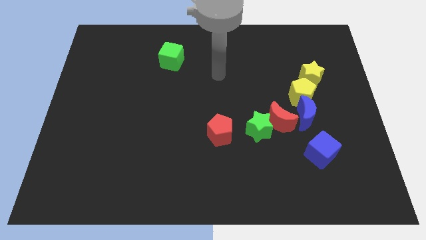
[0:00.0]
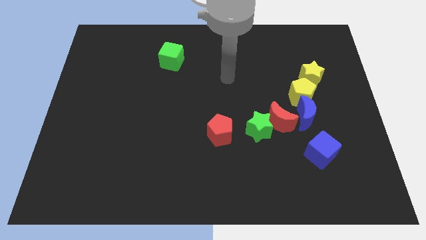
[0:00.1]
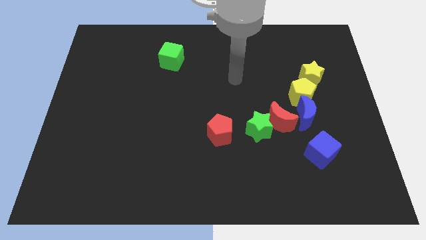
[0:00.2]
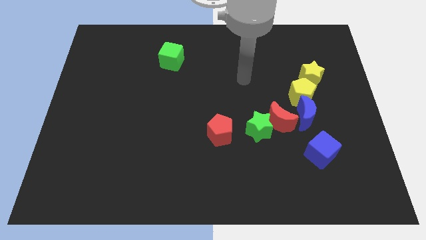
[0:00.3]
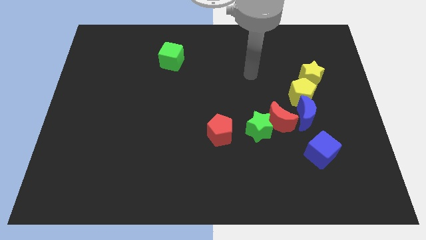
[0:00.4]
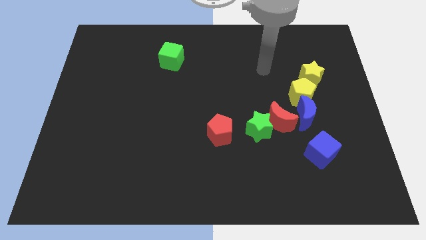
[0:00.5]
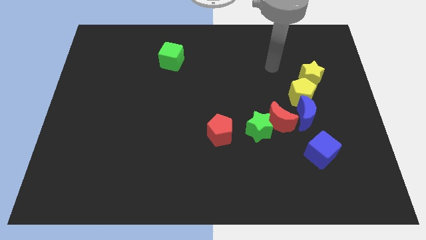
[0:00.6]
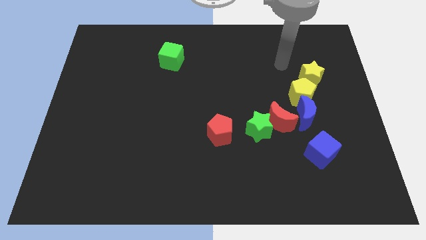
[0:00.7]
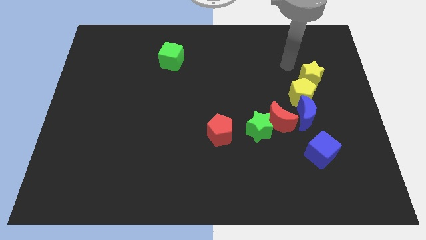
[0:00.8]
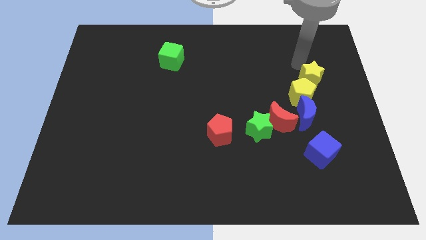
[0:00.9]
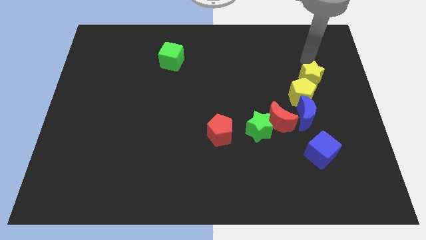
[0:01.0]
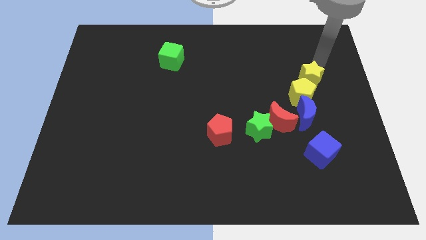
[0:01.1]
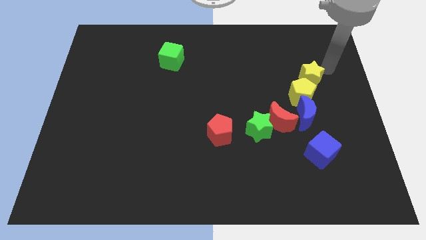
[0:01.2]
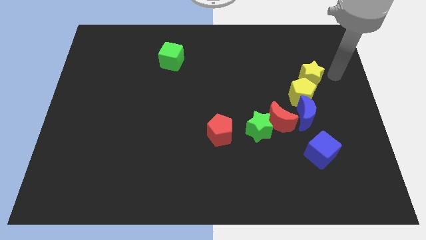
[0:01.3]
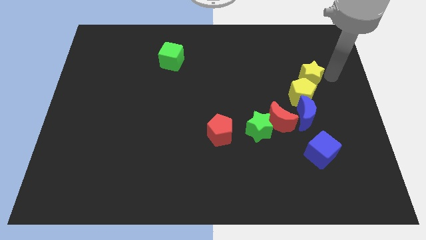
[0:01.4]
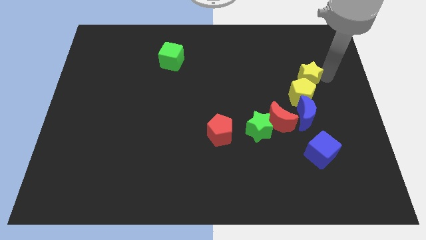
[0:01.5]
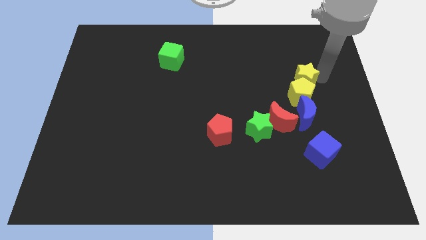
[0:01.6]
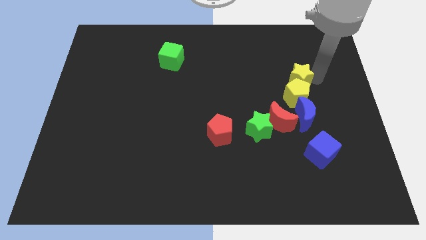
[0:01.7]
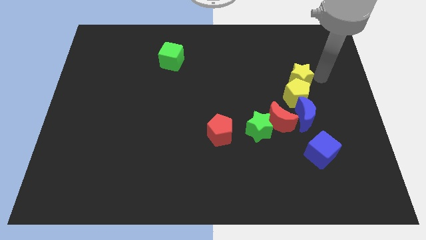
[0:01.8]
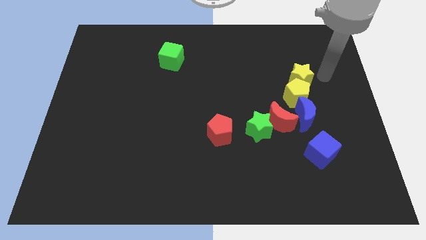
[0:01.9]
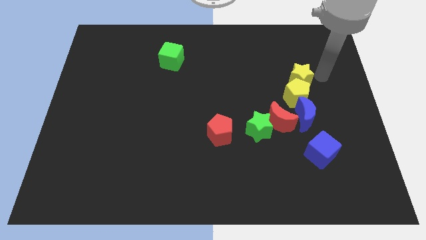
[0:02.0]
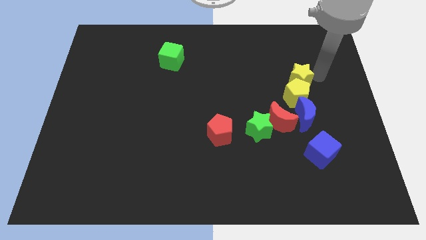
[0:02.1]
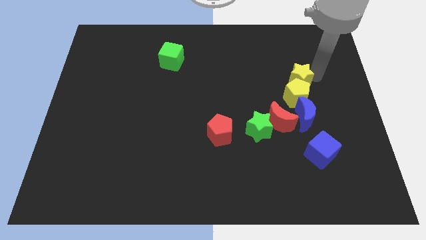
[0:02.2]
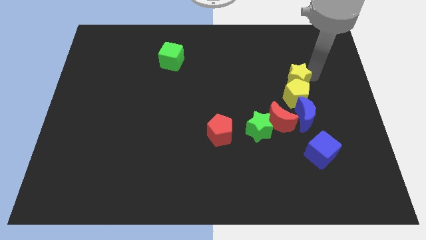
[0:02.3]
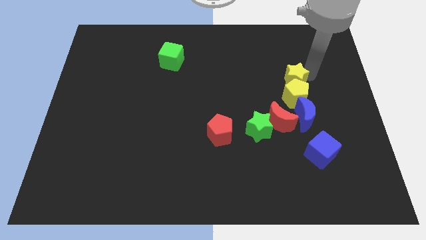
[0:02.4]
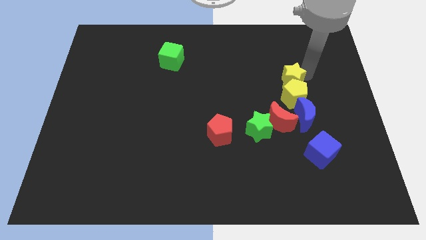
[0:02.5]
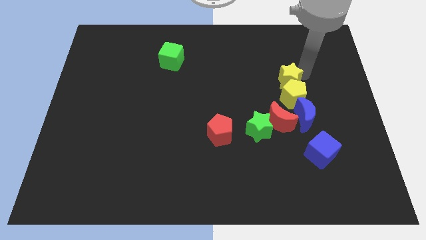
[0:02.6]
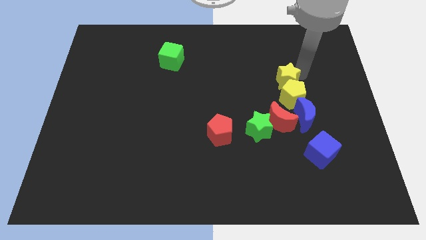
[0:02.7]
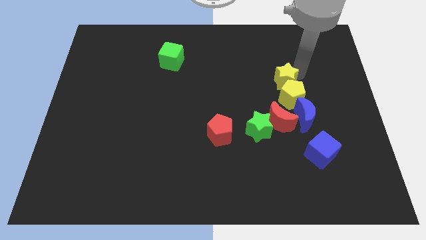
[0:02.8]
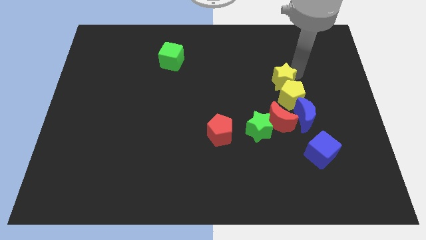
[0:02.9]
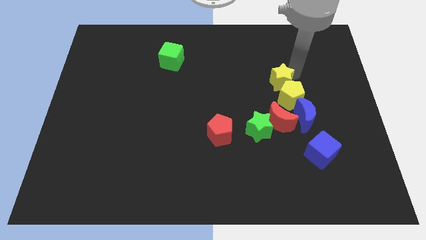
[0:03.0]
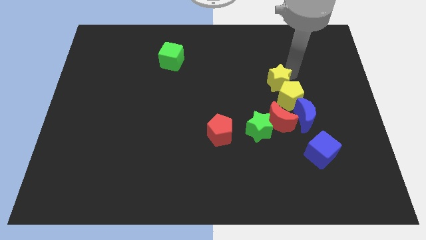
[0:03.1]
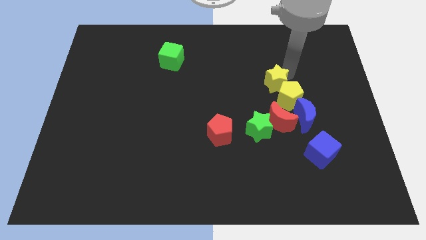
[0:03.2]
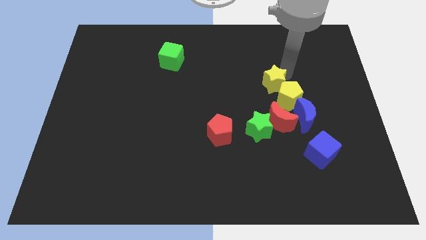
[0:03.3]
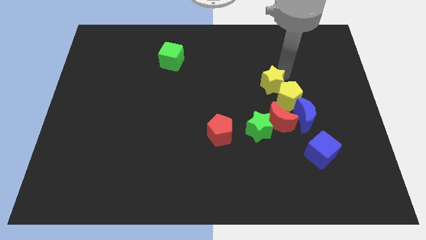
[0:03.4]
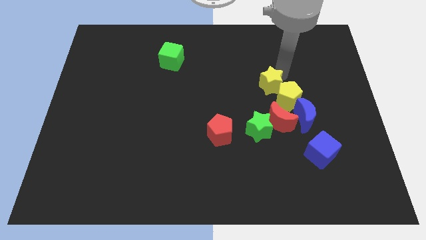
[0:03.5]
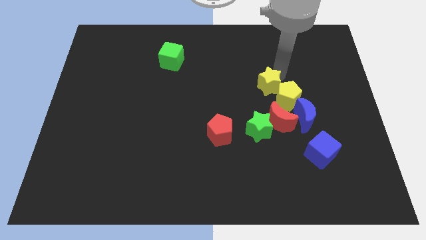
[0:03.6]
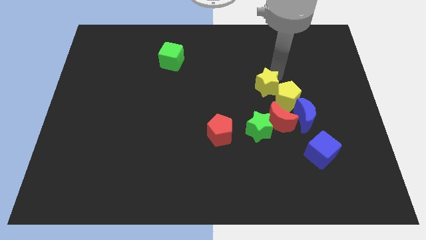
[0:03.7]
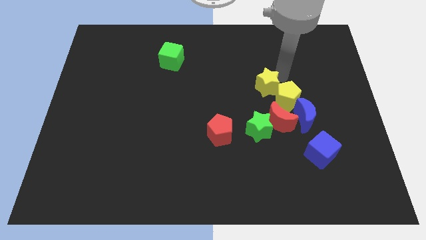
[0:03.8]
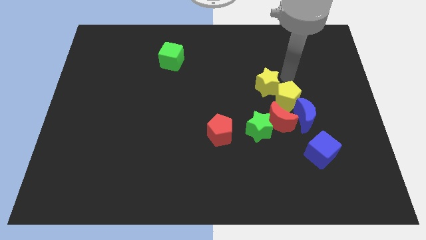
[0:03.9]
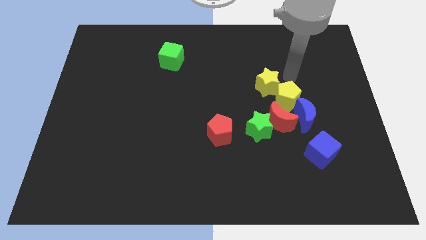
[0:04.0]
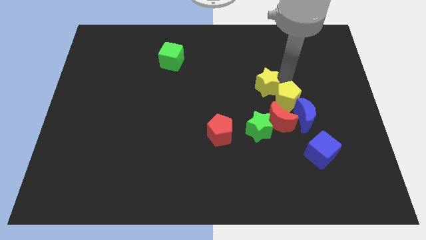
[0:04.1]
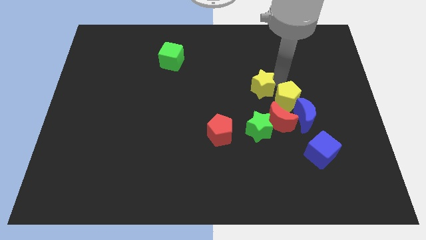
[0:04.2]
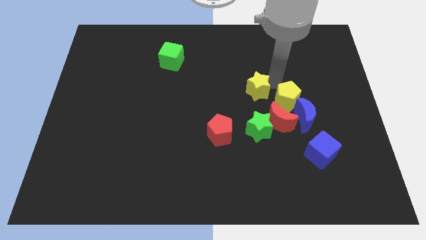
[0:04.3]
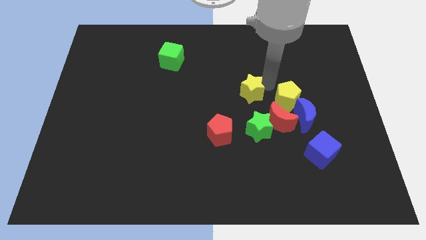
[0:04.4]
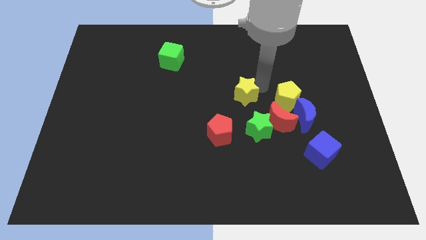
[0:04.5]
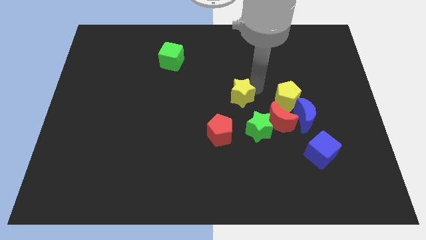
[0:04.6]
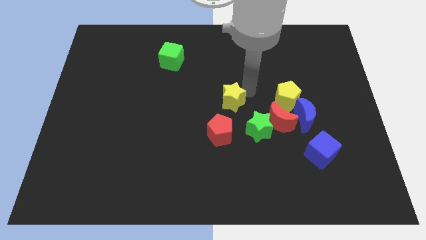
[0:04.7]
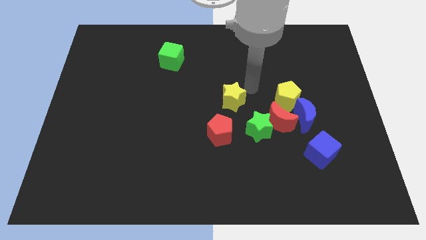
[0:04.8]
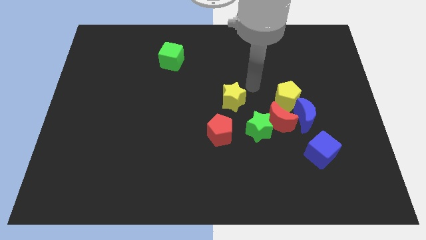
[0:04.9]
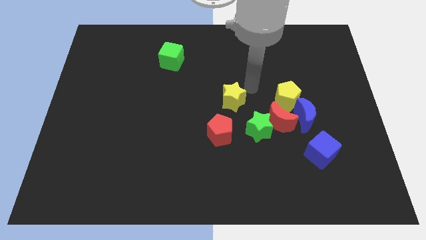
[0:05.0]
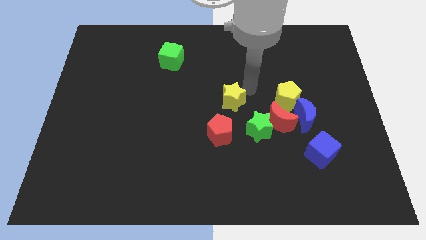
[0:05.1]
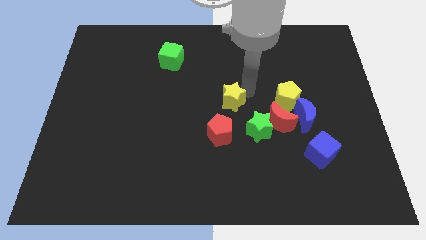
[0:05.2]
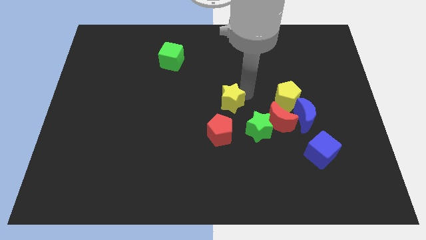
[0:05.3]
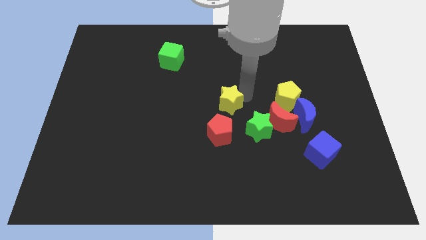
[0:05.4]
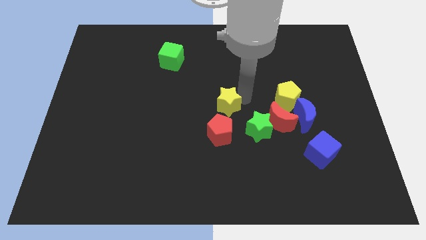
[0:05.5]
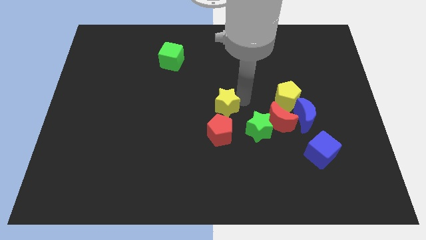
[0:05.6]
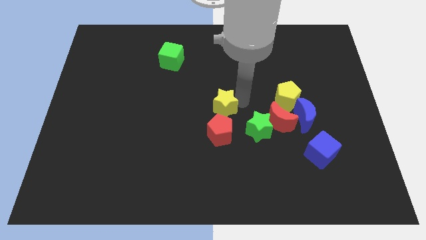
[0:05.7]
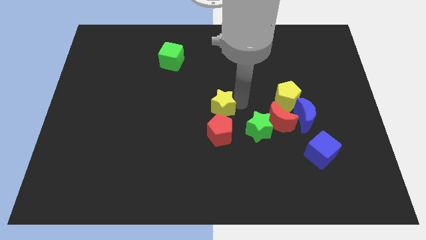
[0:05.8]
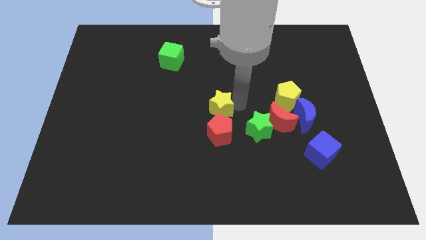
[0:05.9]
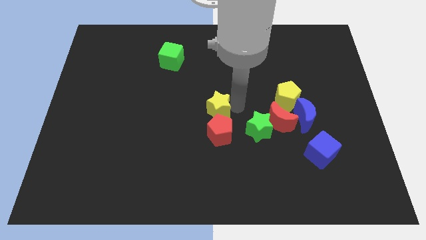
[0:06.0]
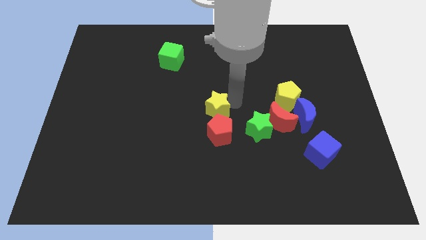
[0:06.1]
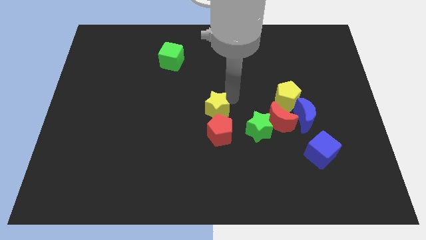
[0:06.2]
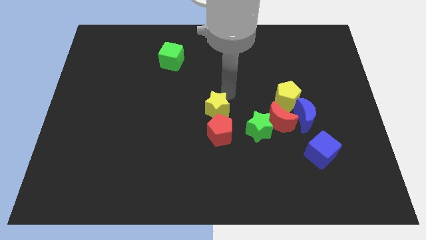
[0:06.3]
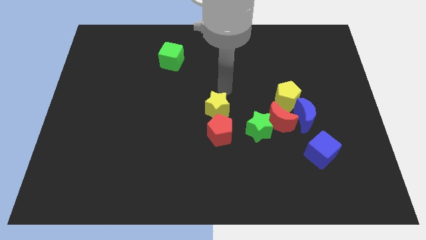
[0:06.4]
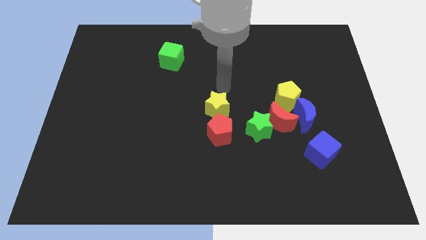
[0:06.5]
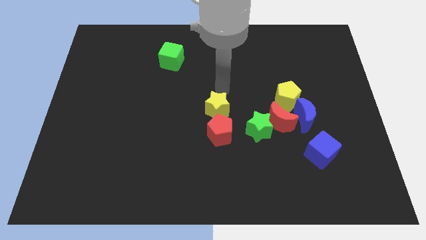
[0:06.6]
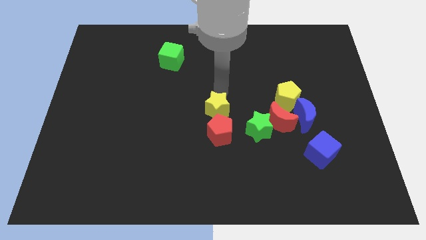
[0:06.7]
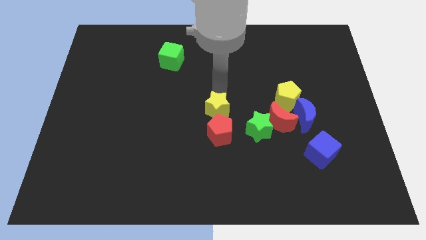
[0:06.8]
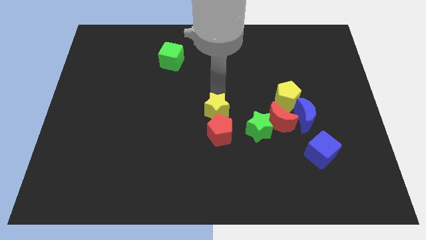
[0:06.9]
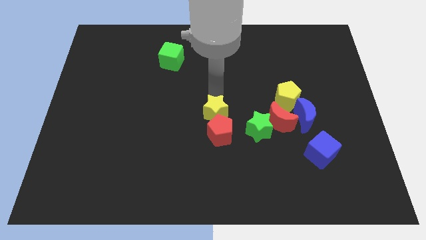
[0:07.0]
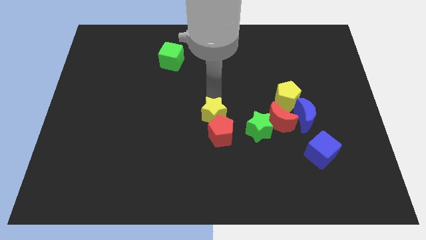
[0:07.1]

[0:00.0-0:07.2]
push the yellow star to the left side of the green star

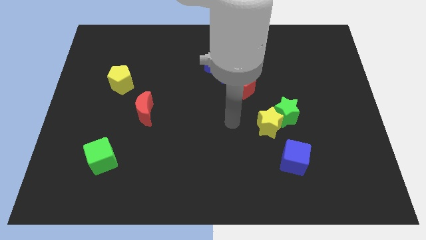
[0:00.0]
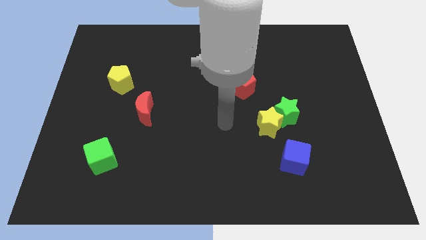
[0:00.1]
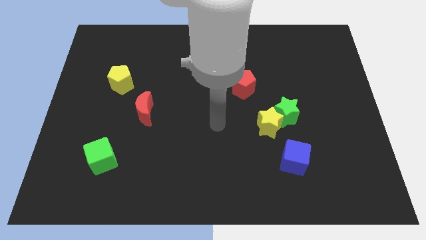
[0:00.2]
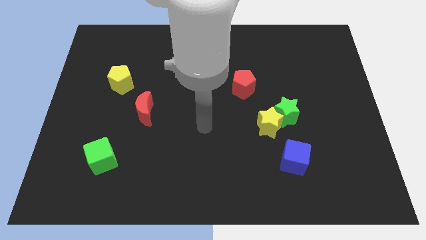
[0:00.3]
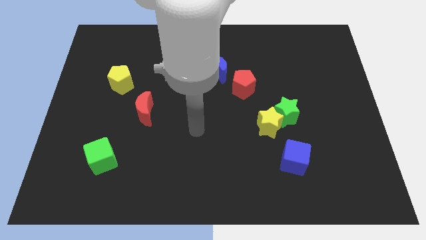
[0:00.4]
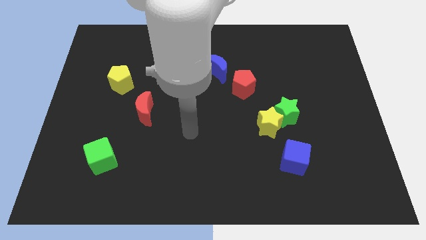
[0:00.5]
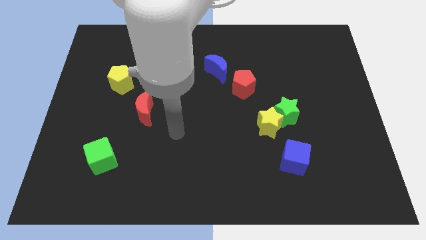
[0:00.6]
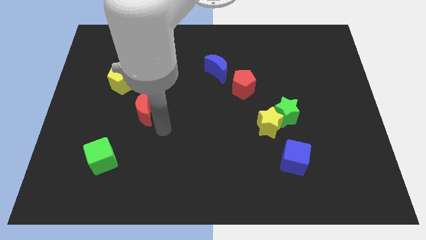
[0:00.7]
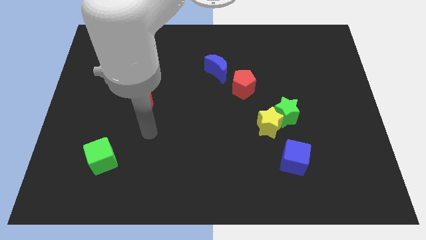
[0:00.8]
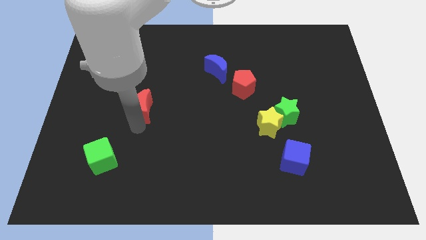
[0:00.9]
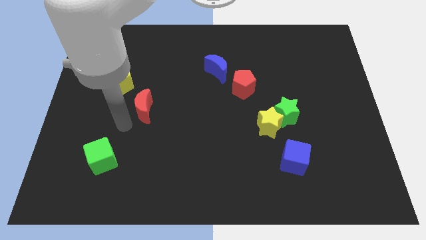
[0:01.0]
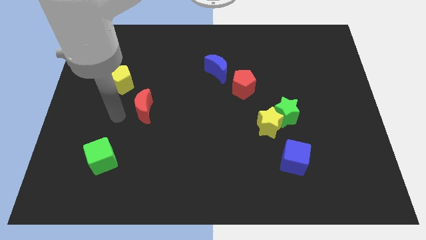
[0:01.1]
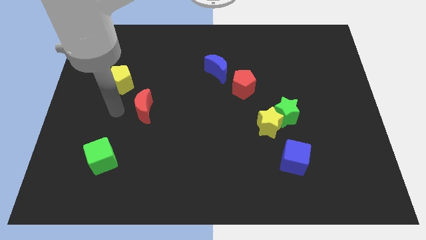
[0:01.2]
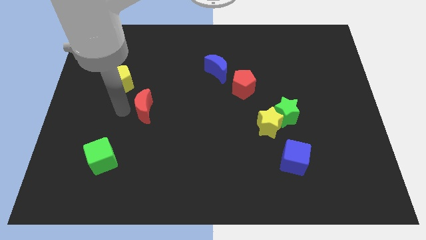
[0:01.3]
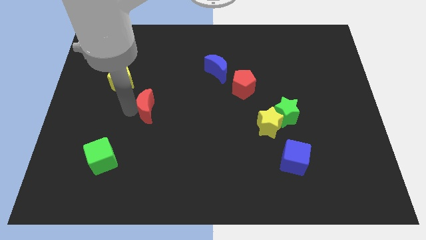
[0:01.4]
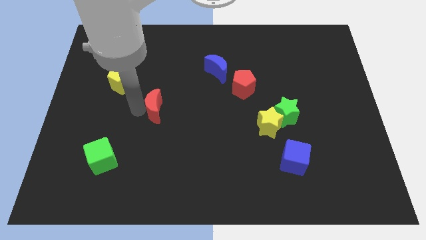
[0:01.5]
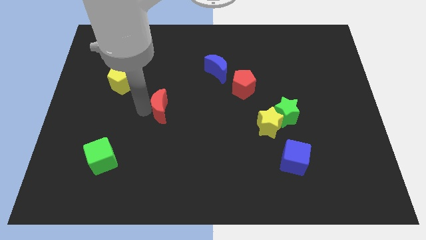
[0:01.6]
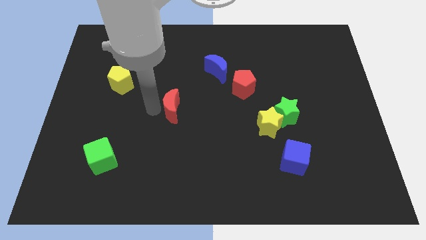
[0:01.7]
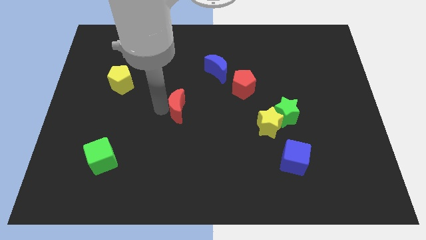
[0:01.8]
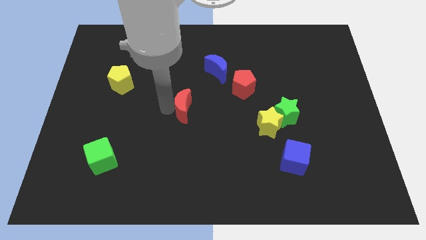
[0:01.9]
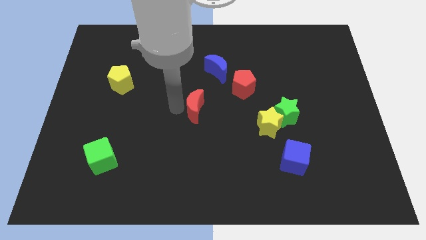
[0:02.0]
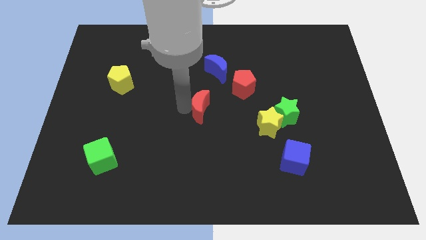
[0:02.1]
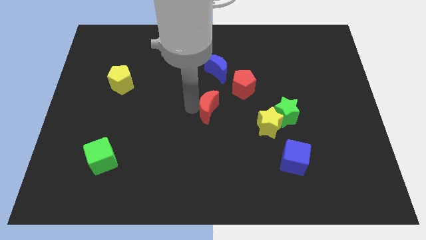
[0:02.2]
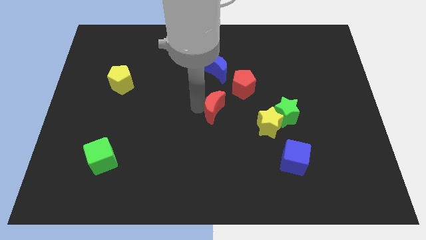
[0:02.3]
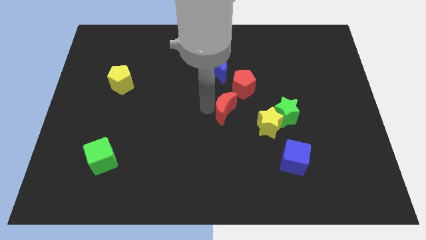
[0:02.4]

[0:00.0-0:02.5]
move the red moon below the red pentagon
